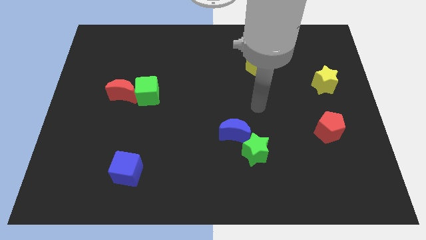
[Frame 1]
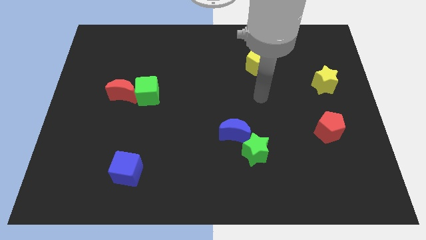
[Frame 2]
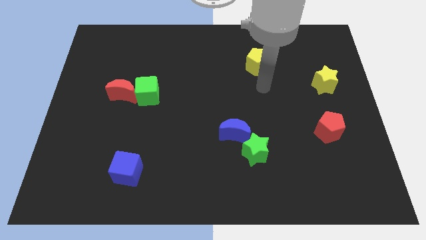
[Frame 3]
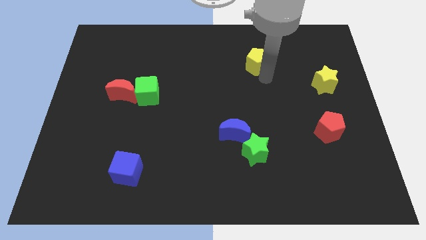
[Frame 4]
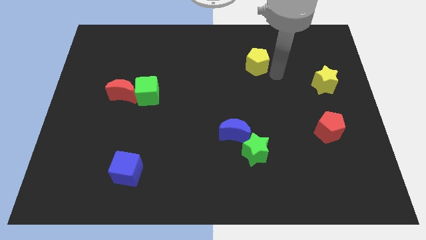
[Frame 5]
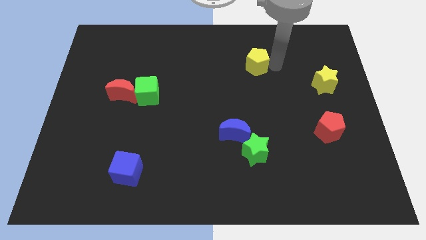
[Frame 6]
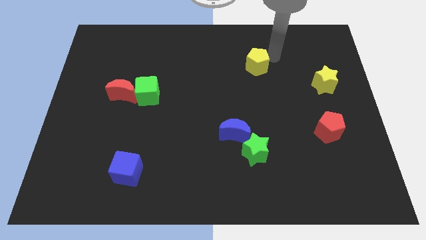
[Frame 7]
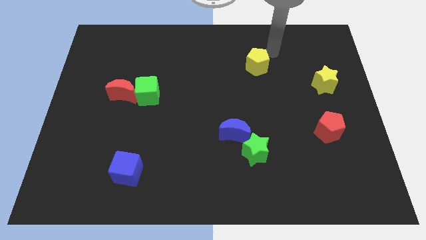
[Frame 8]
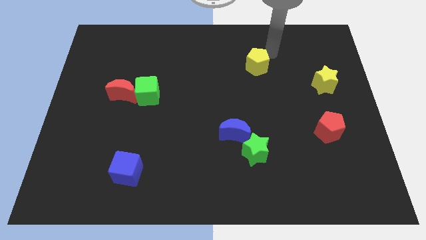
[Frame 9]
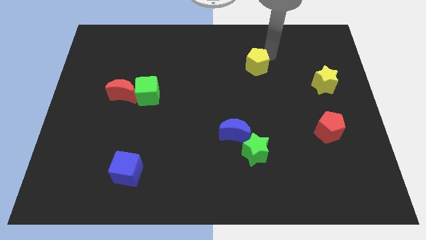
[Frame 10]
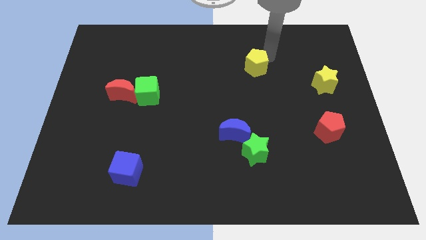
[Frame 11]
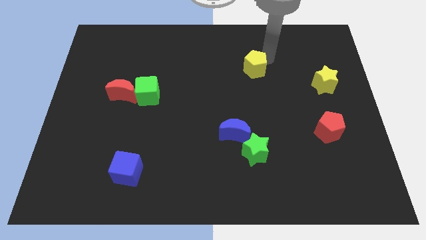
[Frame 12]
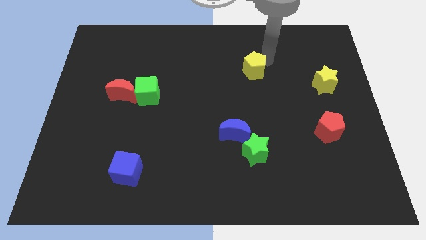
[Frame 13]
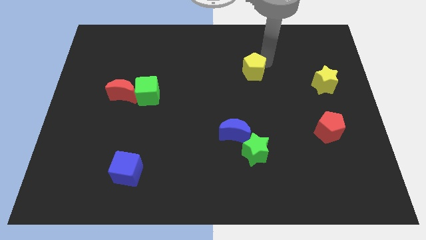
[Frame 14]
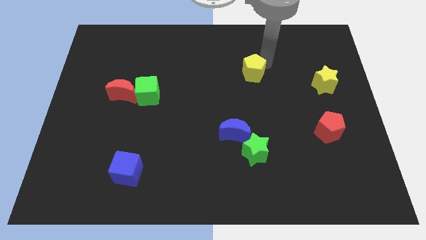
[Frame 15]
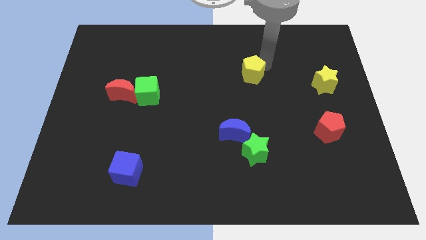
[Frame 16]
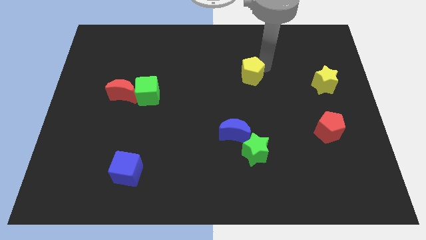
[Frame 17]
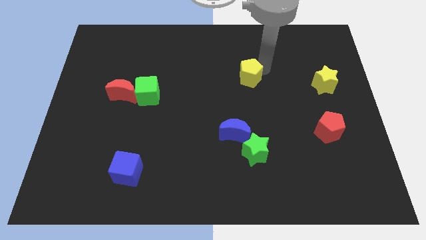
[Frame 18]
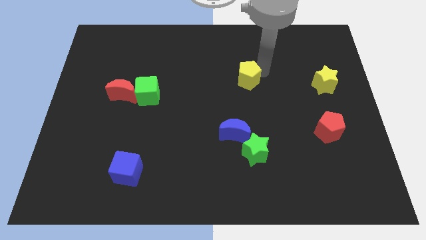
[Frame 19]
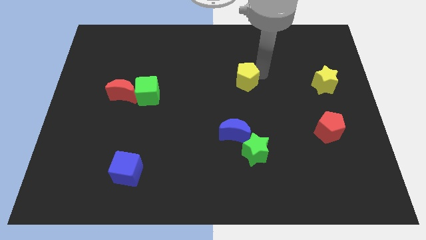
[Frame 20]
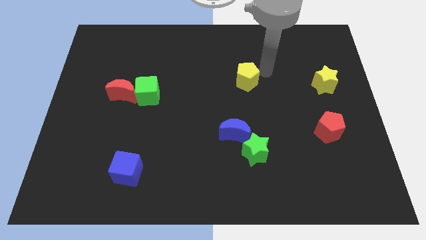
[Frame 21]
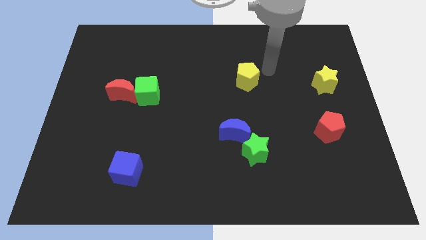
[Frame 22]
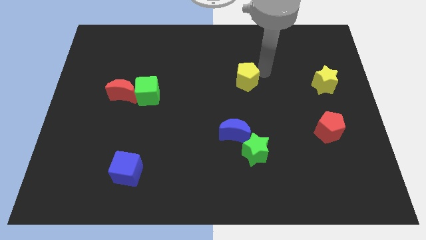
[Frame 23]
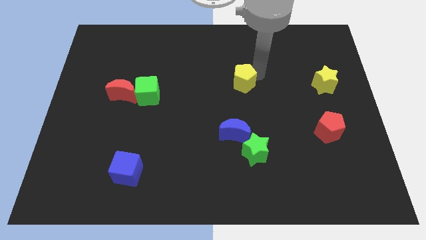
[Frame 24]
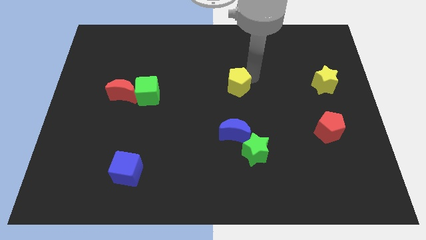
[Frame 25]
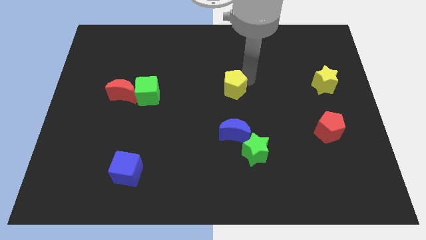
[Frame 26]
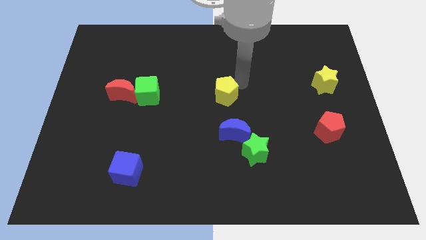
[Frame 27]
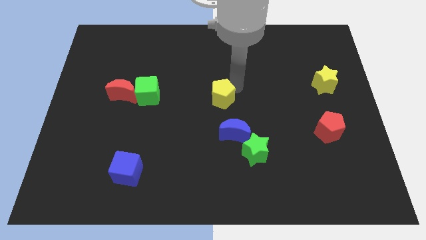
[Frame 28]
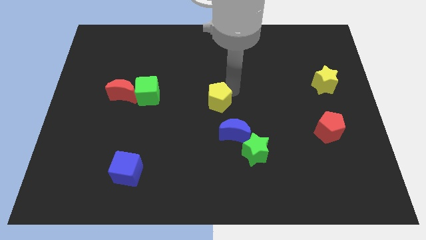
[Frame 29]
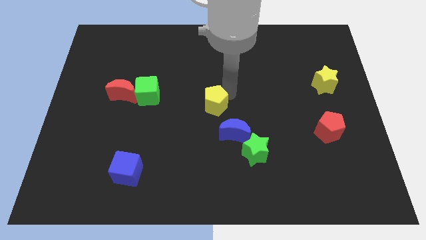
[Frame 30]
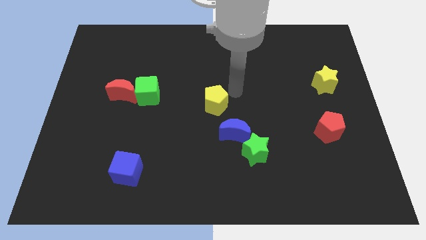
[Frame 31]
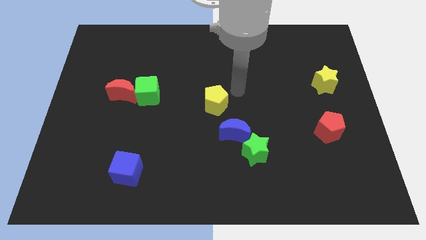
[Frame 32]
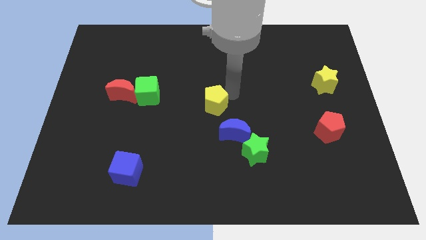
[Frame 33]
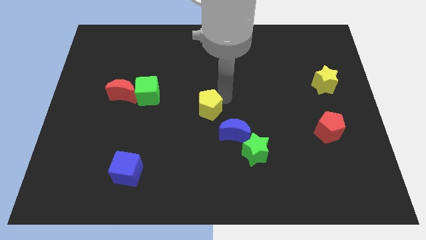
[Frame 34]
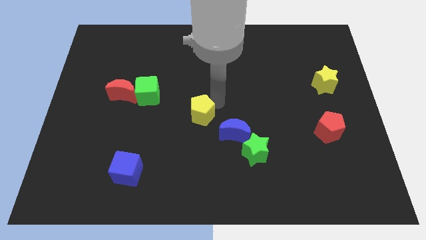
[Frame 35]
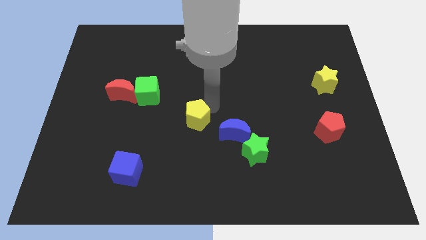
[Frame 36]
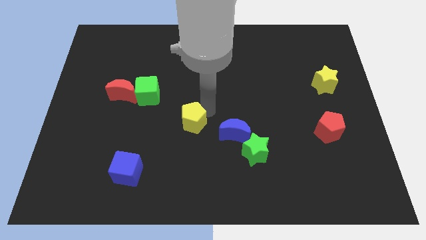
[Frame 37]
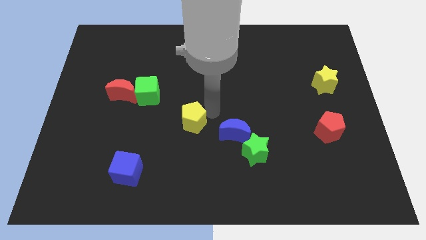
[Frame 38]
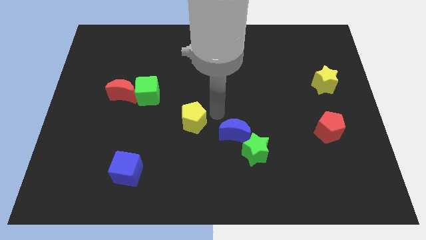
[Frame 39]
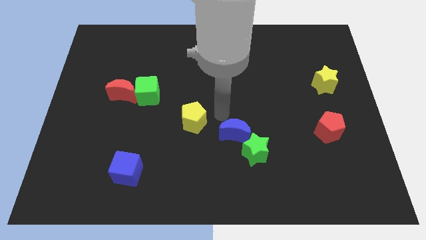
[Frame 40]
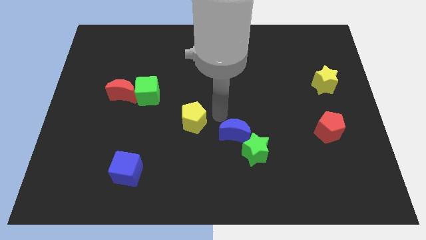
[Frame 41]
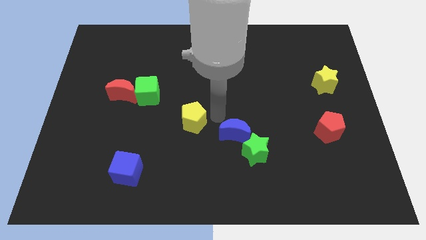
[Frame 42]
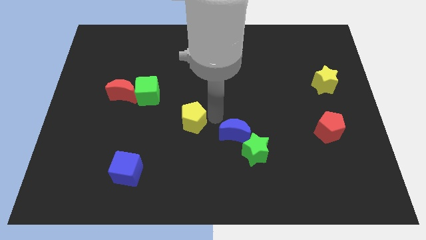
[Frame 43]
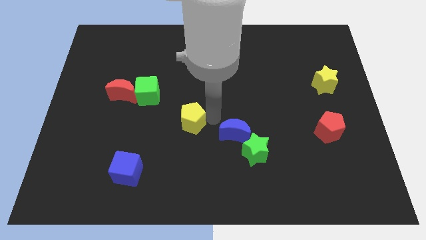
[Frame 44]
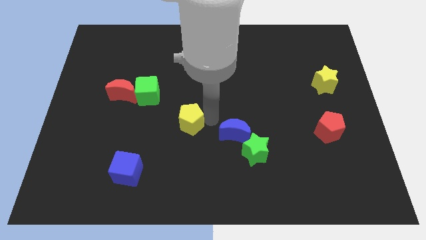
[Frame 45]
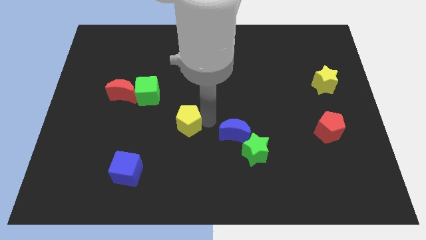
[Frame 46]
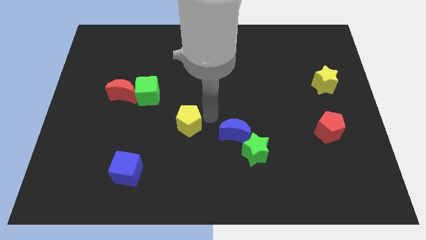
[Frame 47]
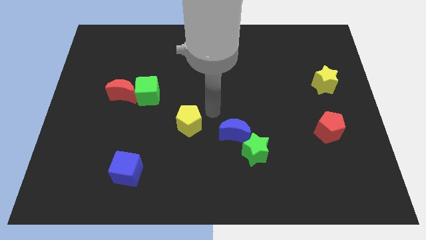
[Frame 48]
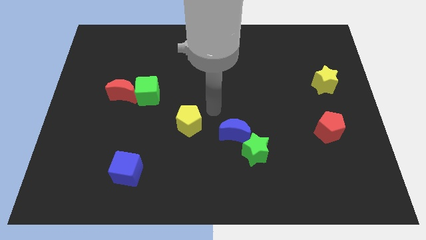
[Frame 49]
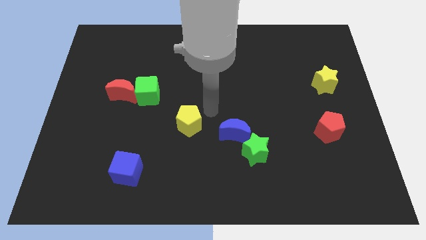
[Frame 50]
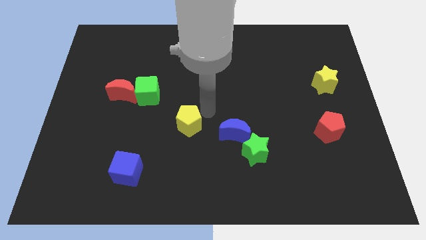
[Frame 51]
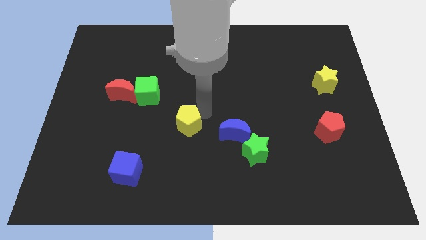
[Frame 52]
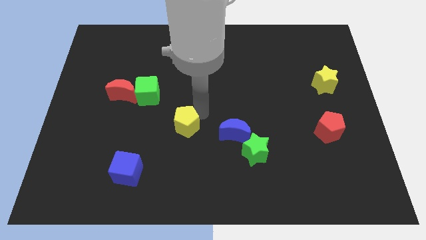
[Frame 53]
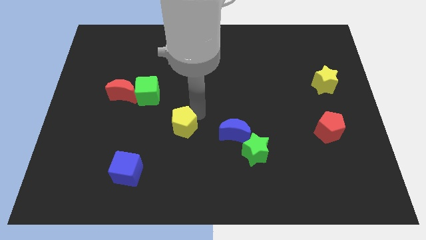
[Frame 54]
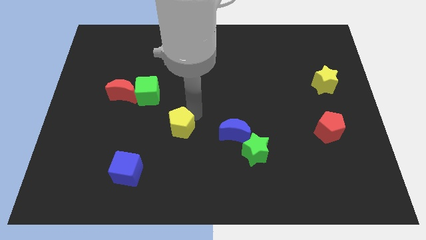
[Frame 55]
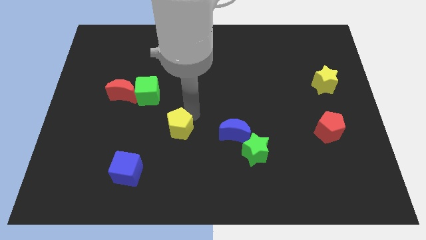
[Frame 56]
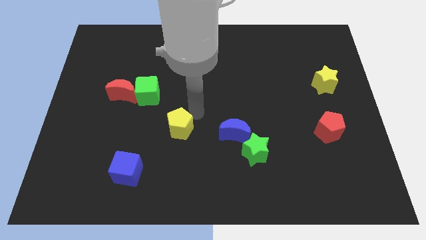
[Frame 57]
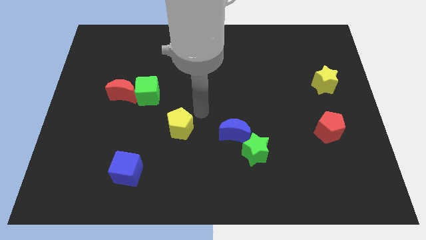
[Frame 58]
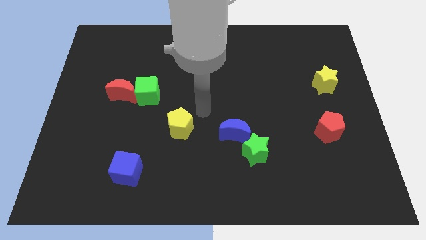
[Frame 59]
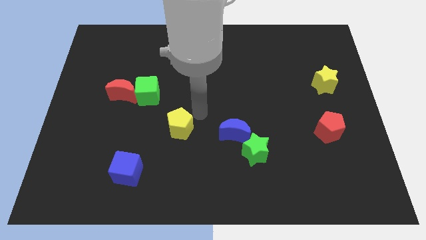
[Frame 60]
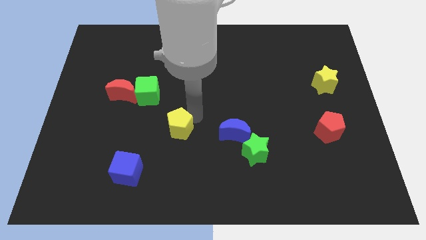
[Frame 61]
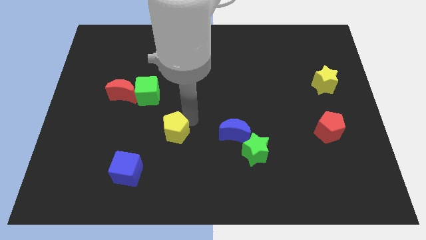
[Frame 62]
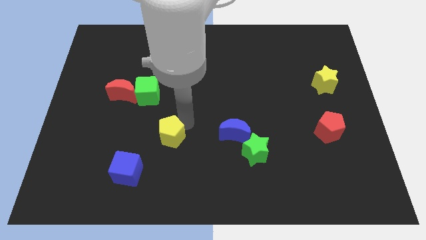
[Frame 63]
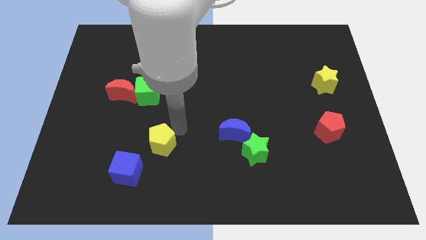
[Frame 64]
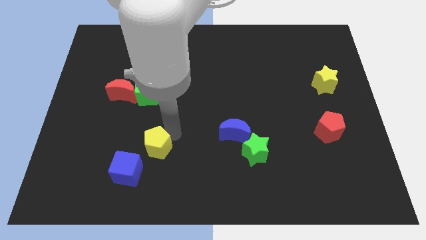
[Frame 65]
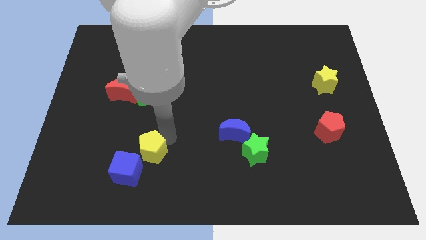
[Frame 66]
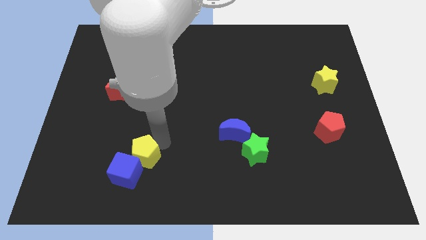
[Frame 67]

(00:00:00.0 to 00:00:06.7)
push the yellow pentagon to the blue cube

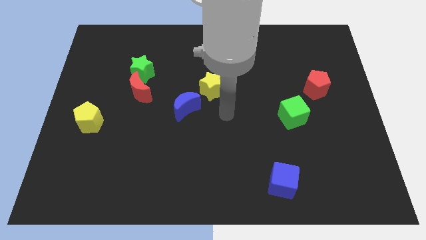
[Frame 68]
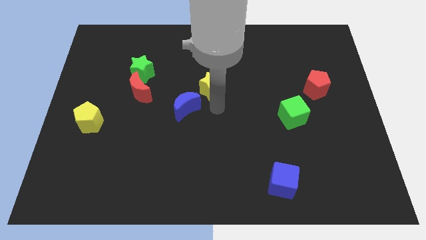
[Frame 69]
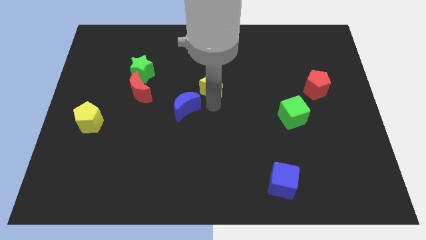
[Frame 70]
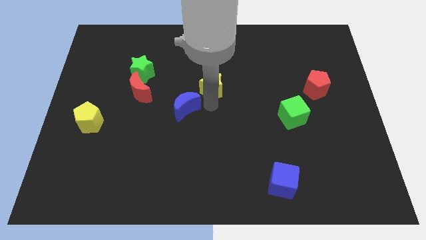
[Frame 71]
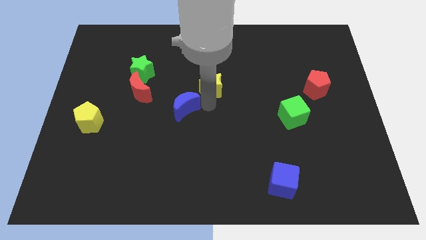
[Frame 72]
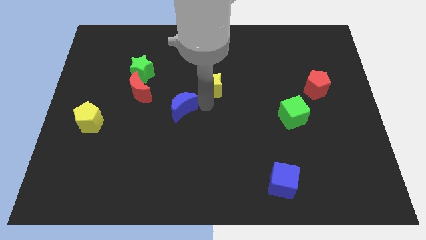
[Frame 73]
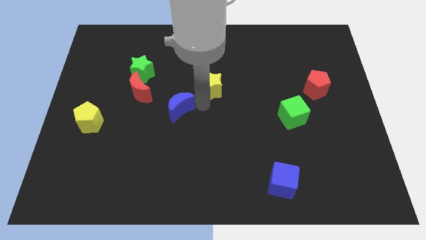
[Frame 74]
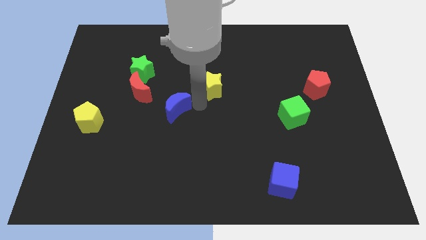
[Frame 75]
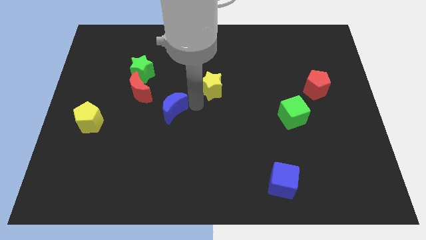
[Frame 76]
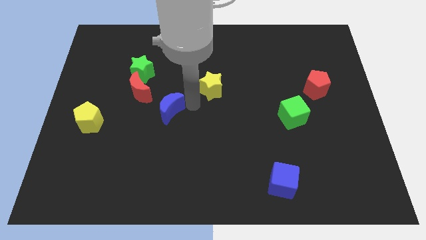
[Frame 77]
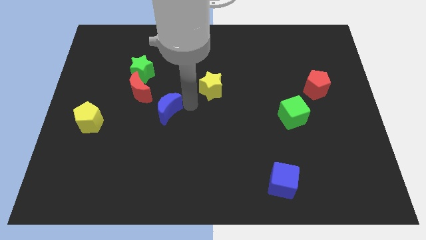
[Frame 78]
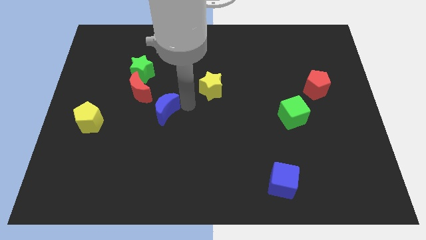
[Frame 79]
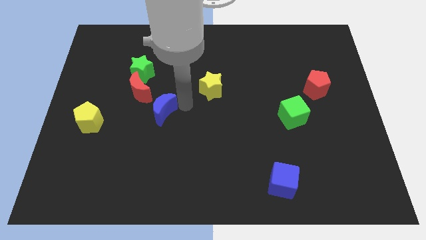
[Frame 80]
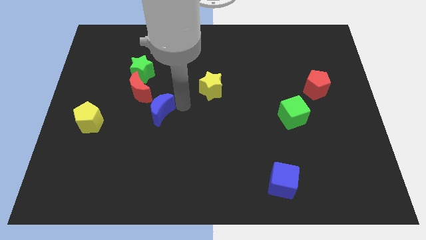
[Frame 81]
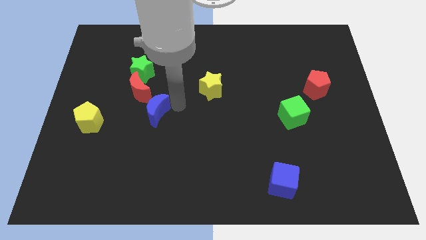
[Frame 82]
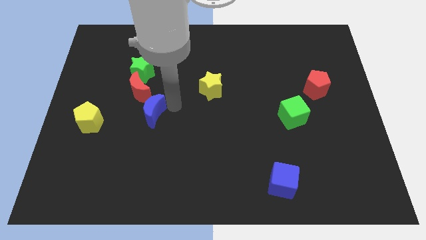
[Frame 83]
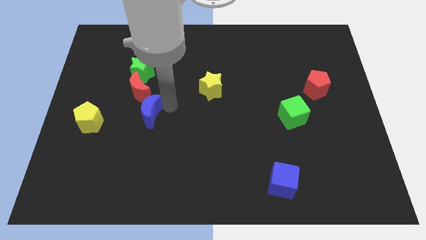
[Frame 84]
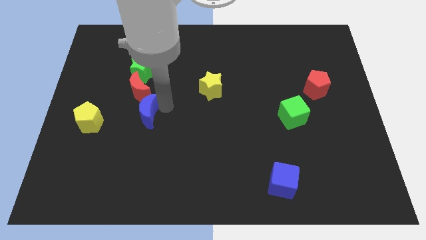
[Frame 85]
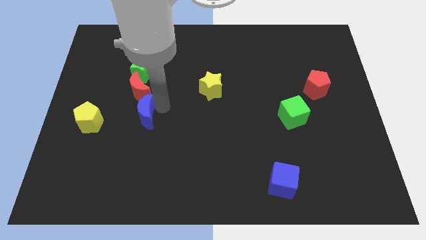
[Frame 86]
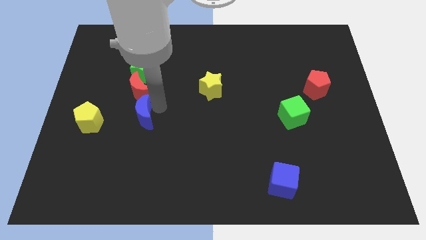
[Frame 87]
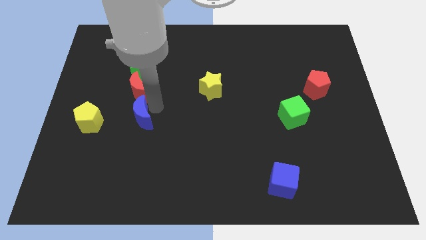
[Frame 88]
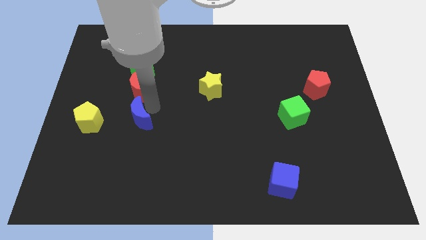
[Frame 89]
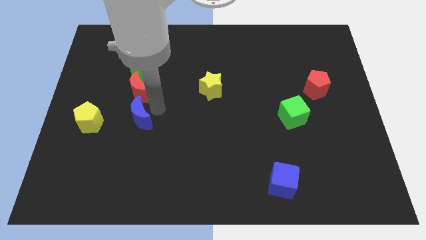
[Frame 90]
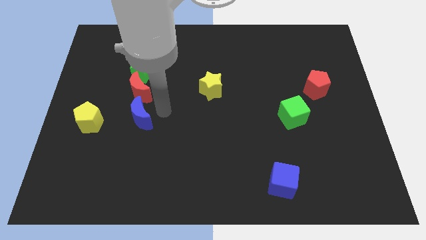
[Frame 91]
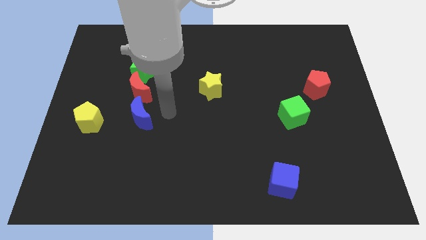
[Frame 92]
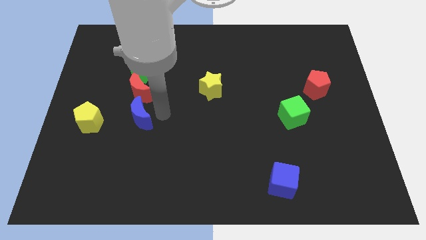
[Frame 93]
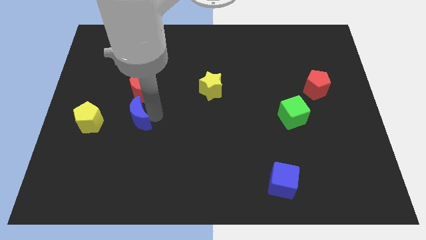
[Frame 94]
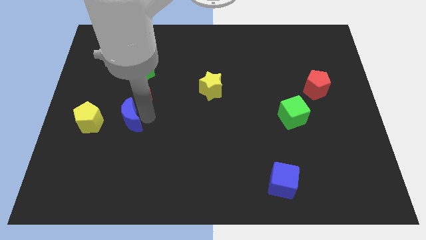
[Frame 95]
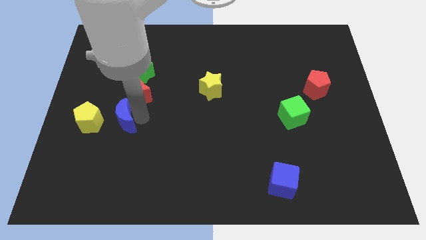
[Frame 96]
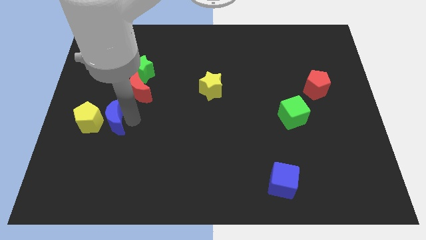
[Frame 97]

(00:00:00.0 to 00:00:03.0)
put the blue moon close to the yellow pentagon
